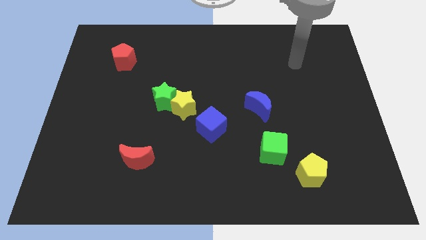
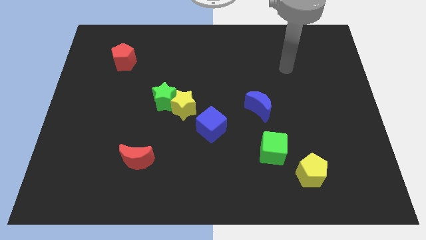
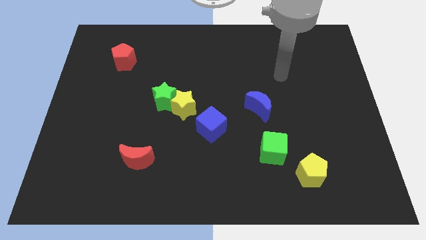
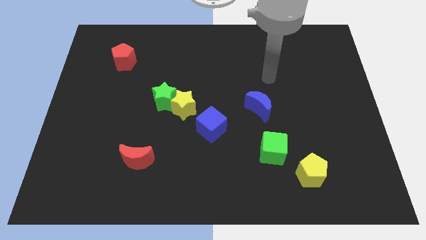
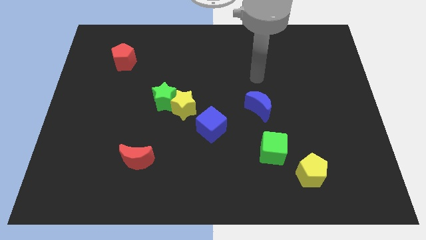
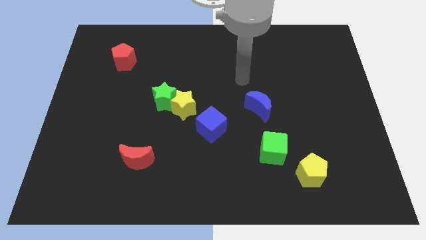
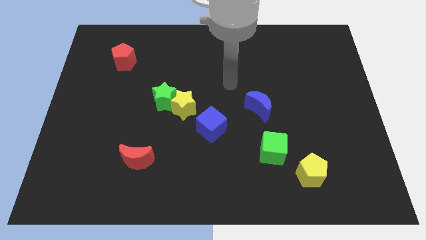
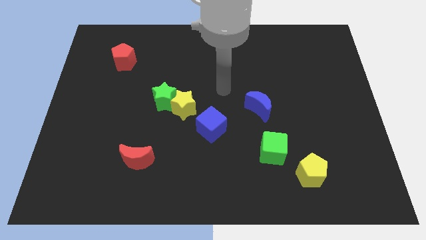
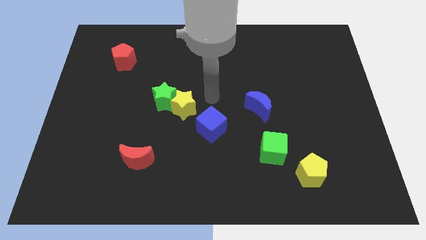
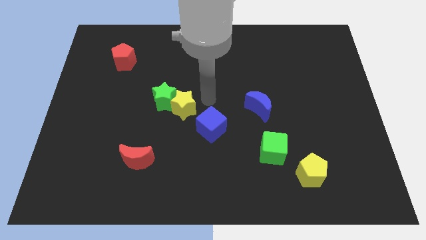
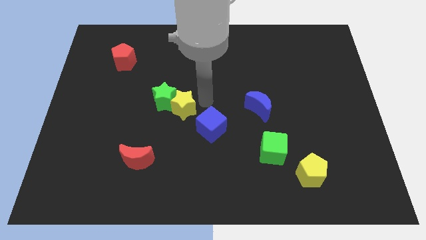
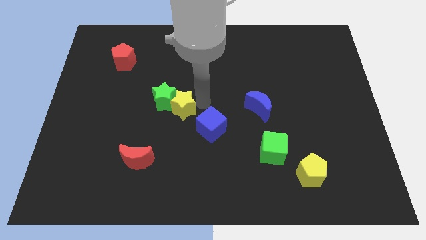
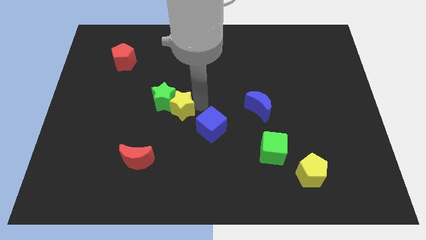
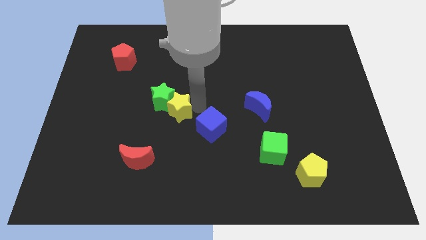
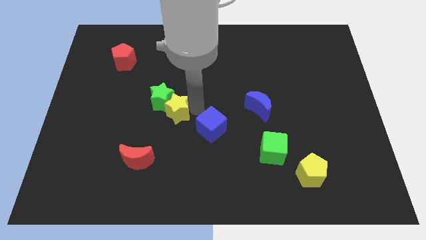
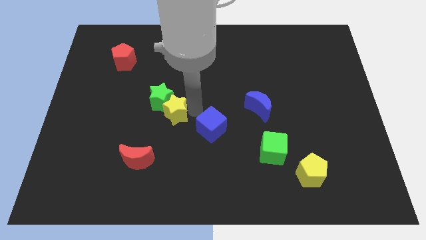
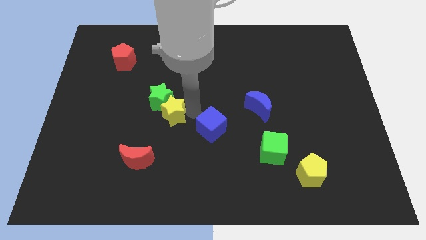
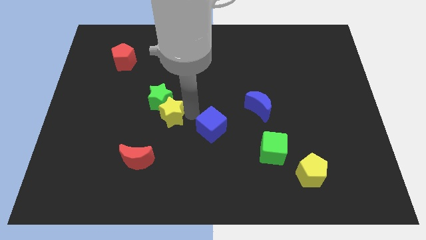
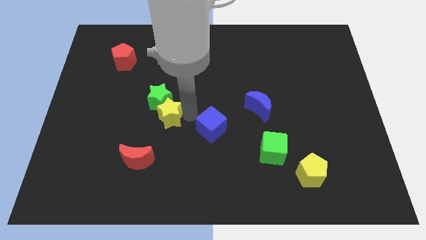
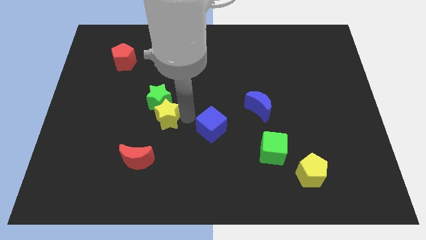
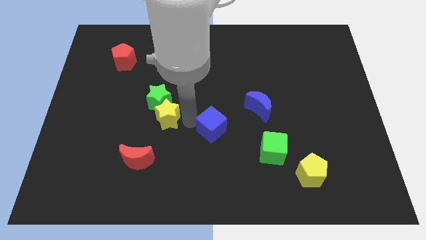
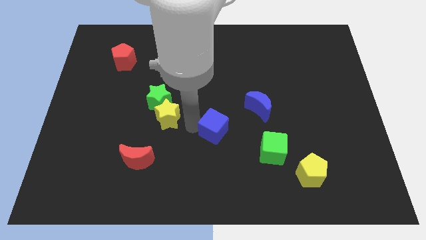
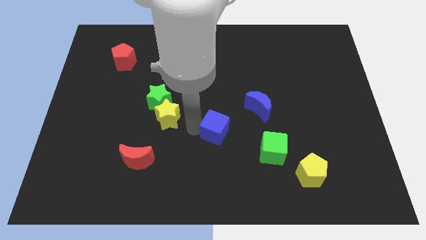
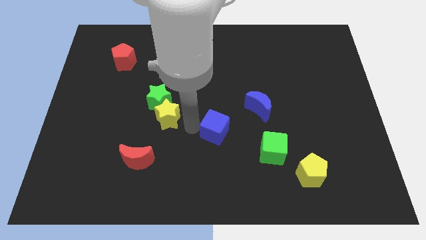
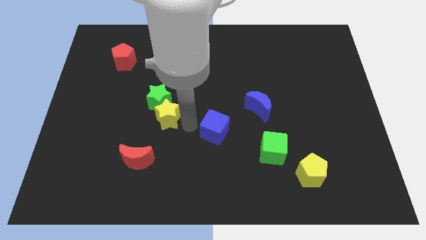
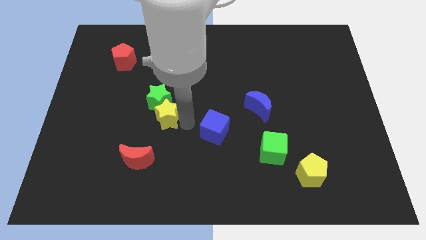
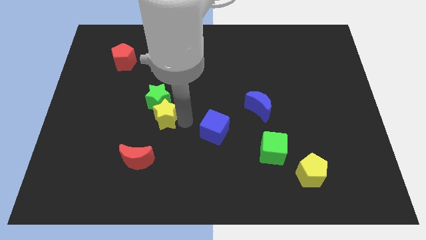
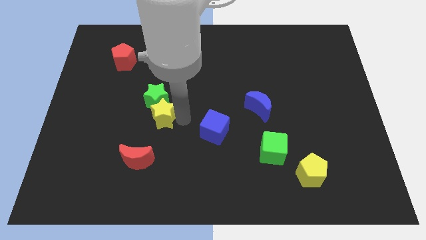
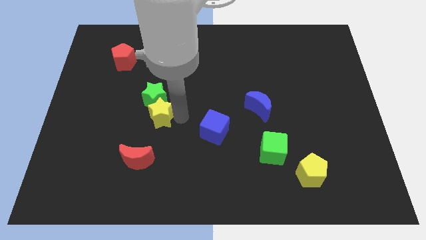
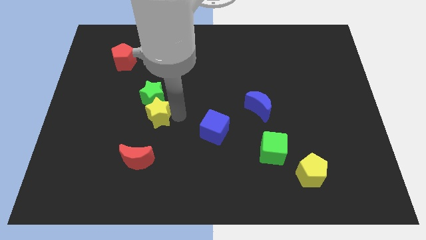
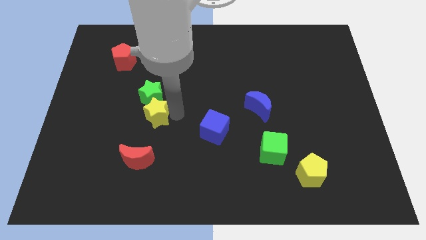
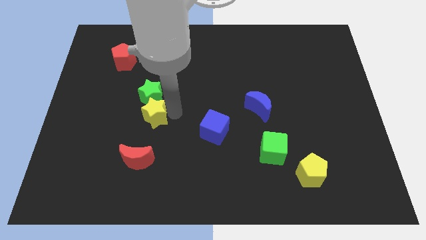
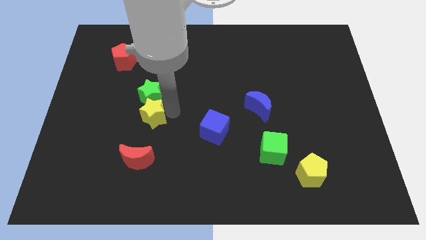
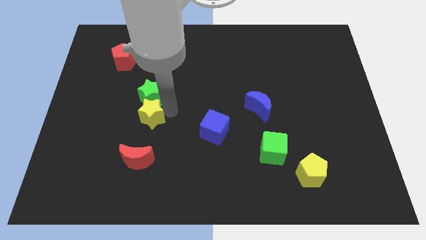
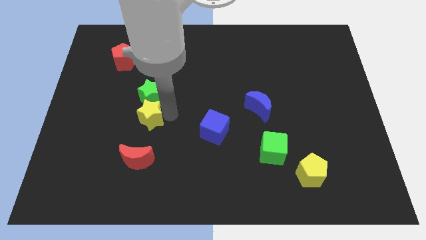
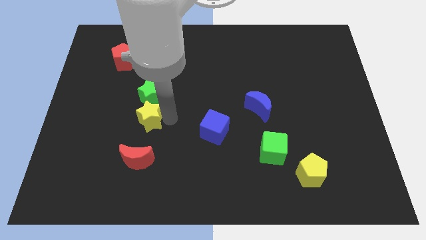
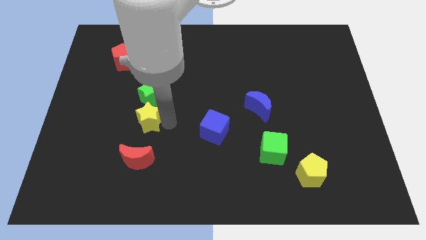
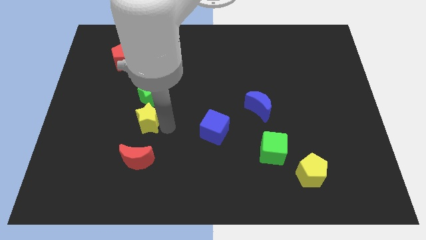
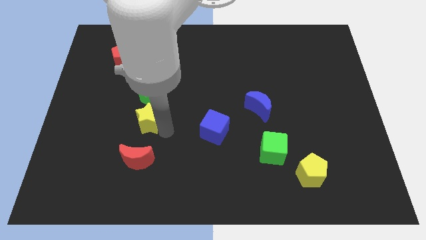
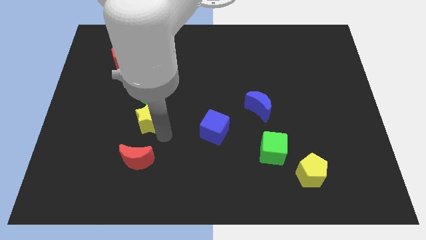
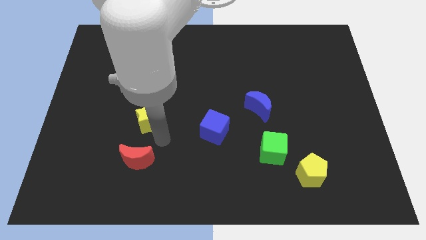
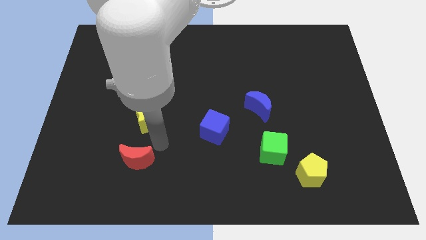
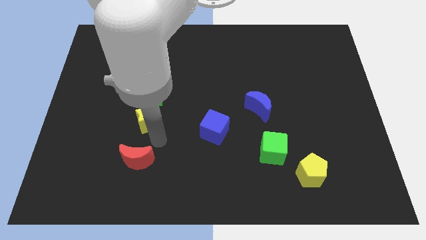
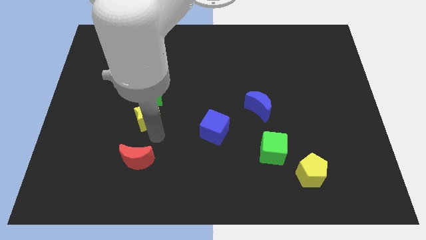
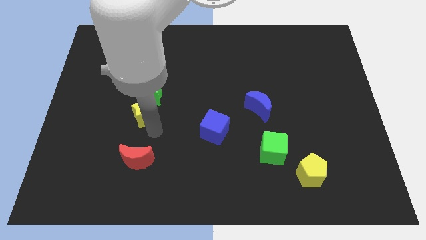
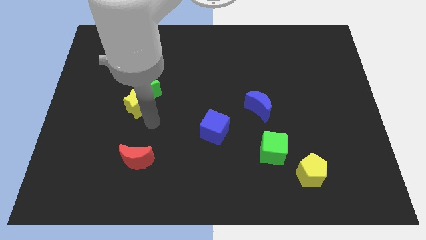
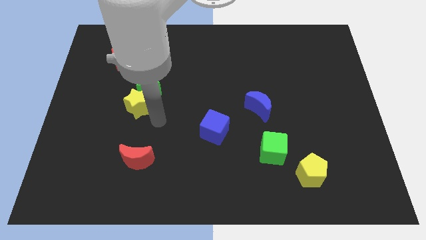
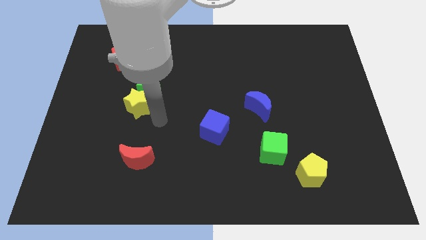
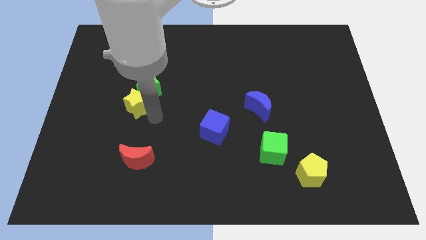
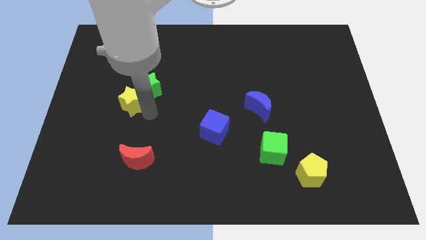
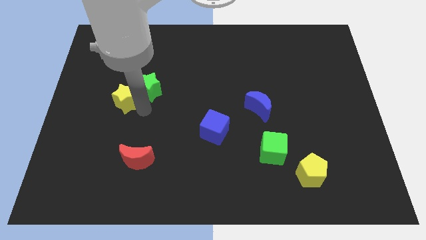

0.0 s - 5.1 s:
push the yellow star to the bottom side of the red pentagon

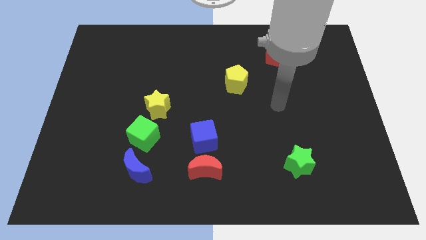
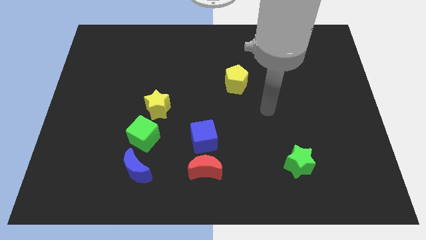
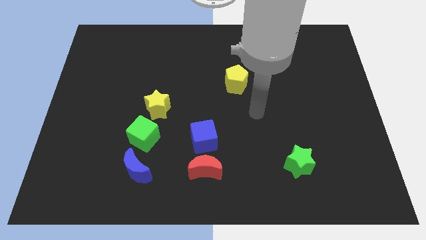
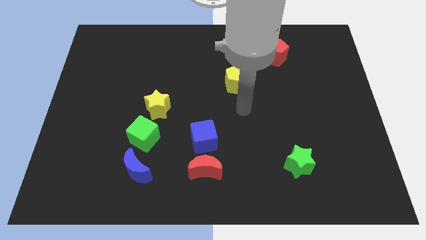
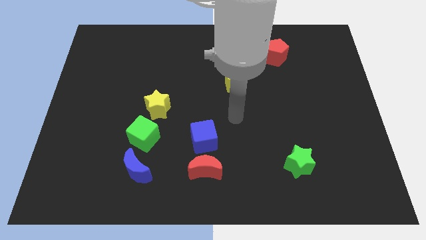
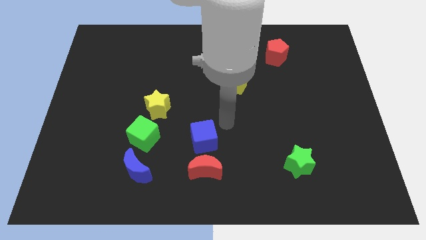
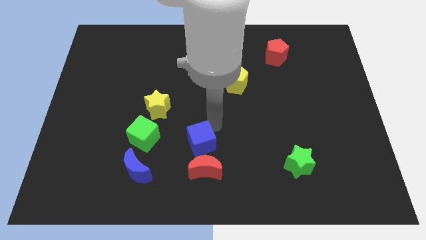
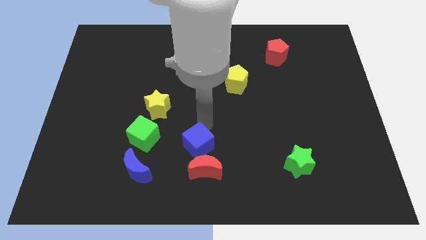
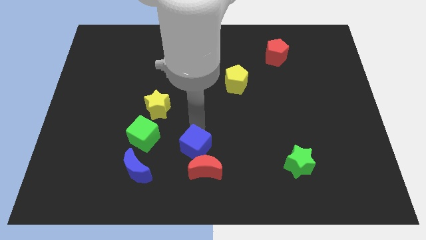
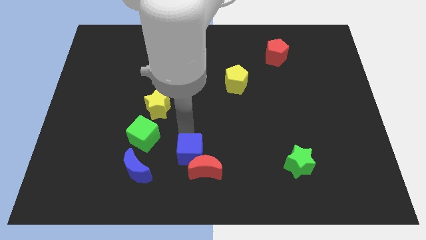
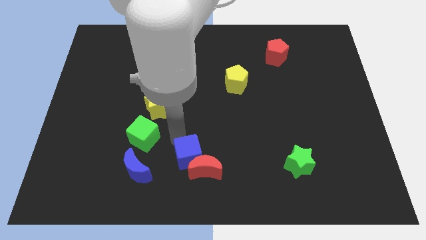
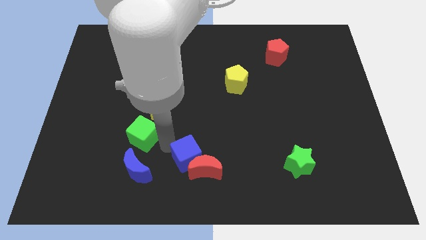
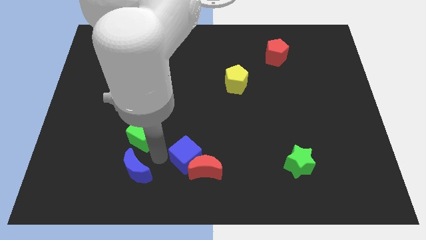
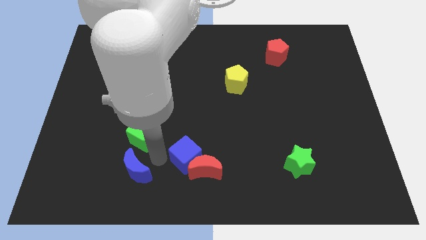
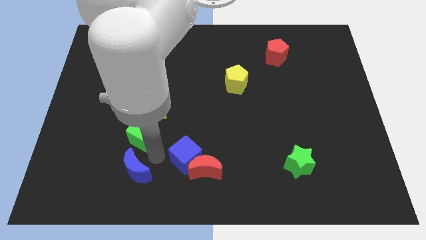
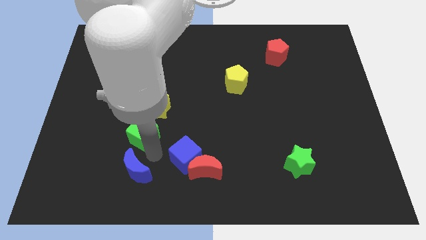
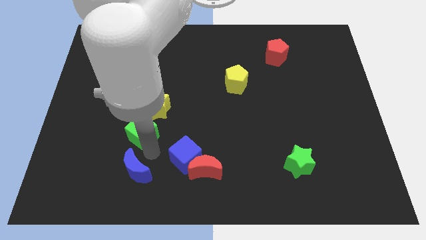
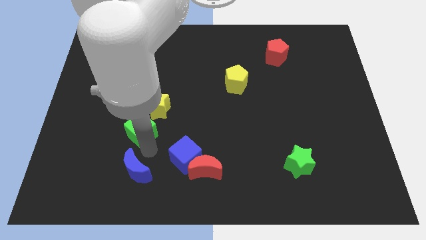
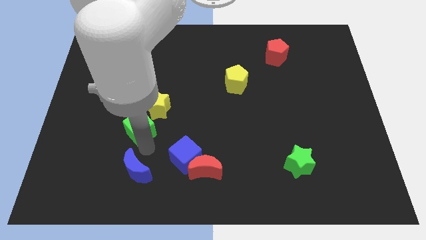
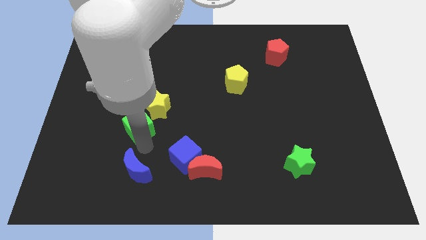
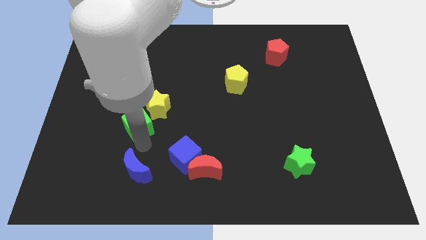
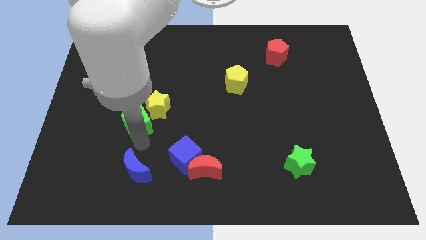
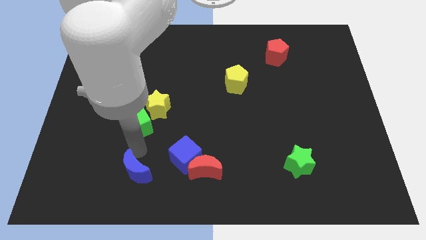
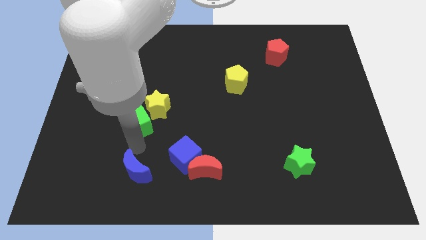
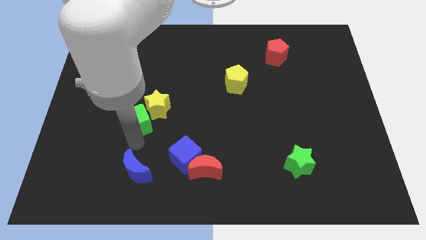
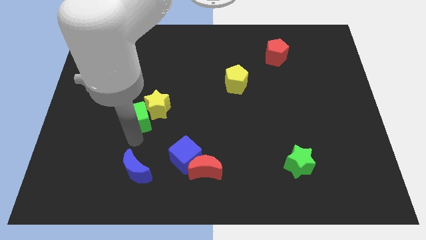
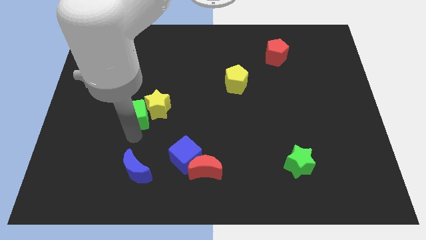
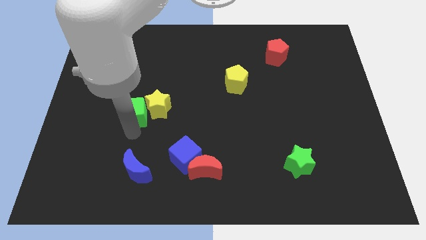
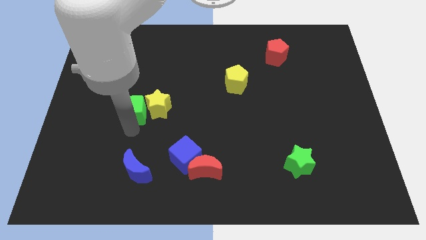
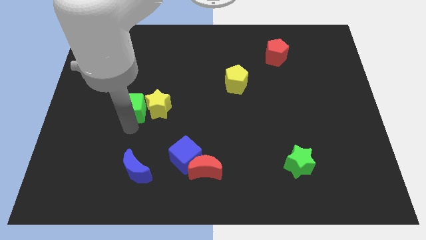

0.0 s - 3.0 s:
move the green cube diagonally up and to the left of the yellow star
